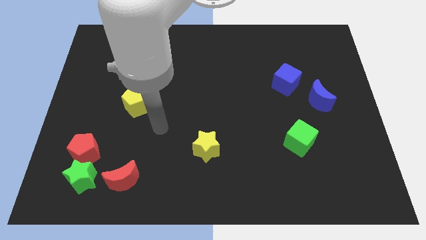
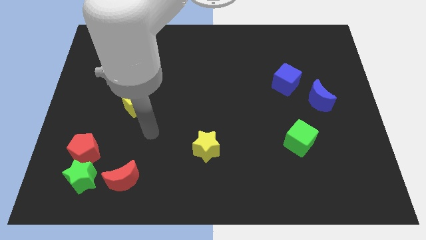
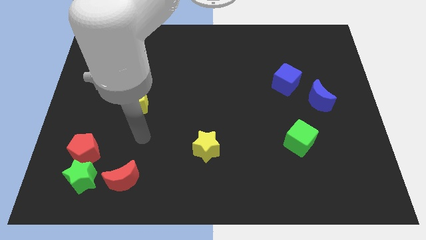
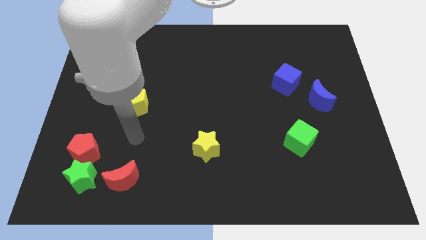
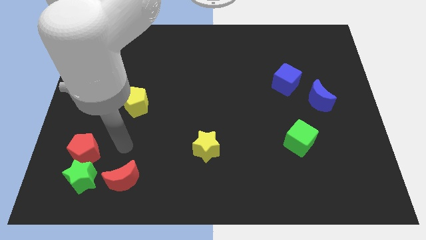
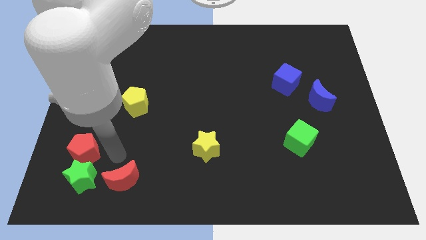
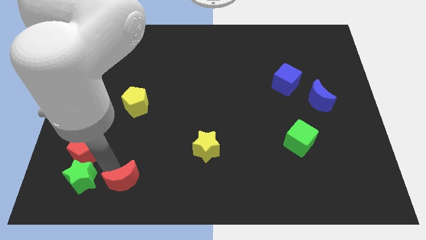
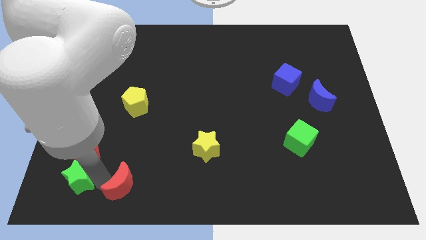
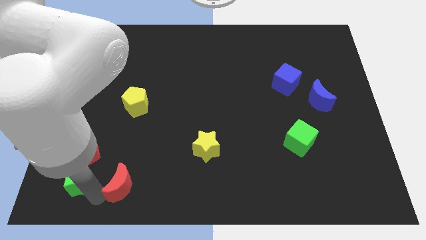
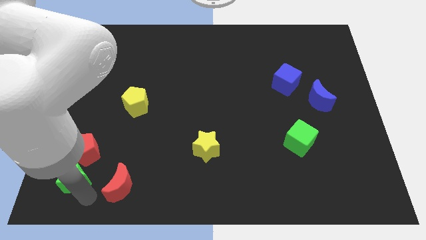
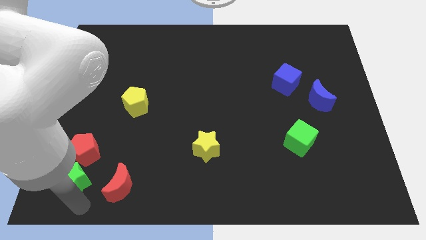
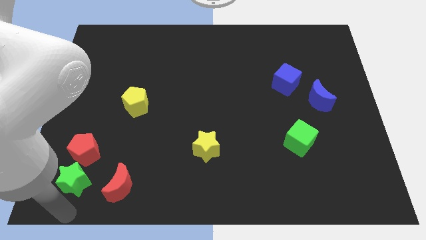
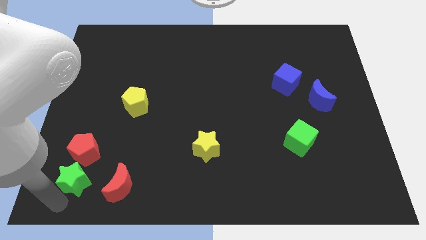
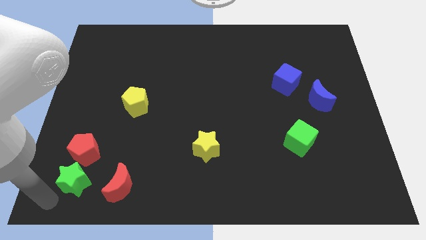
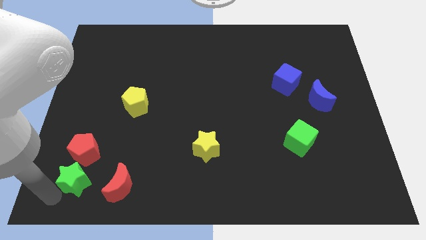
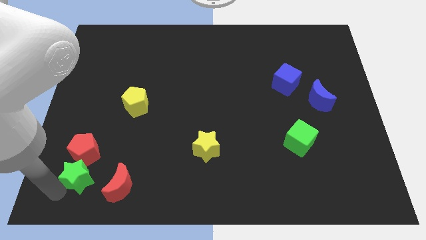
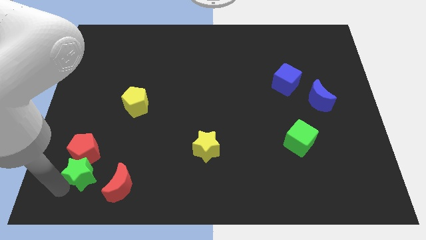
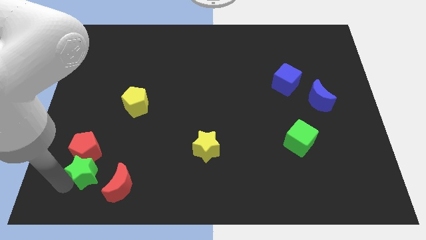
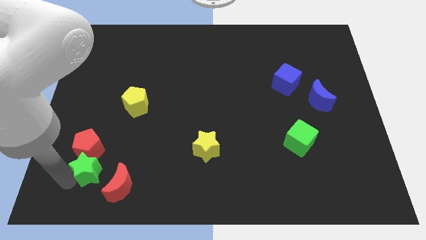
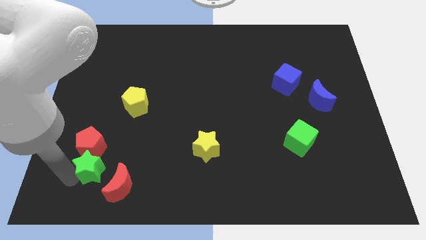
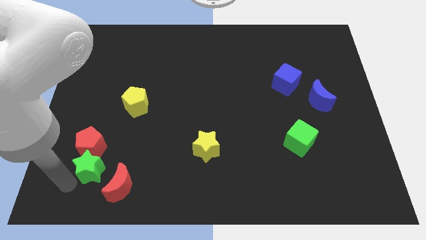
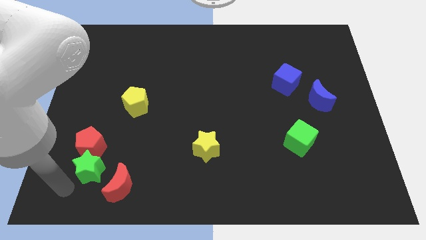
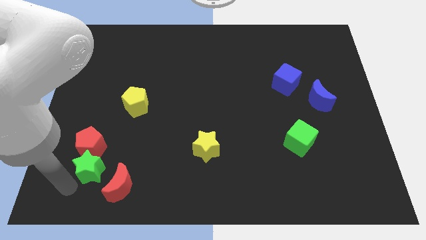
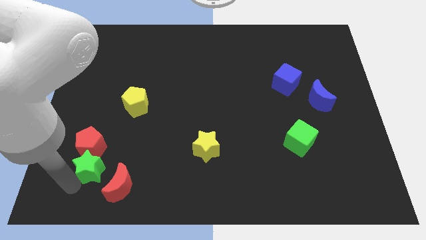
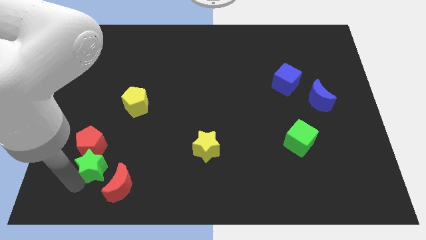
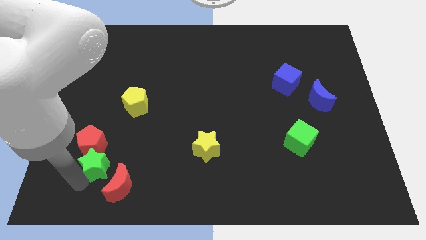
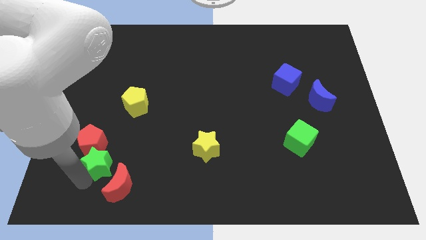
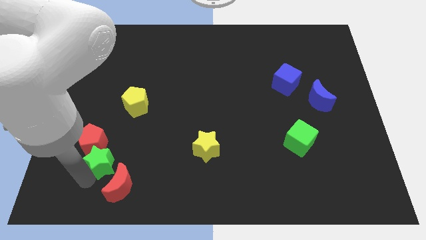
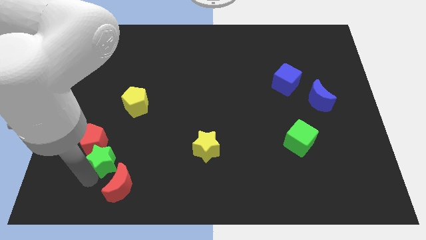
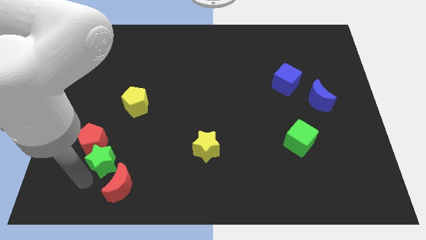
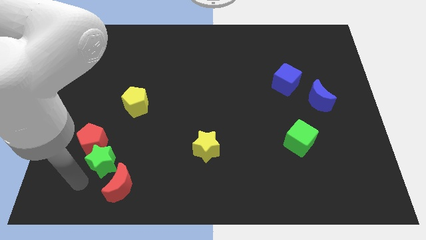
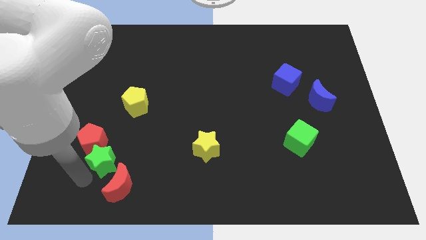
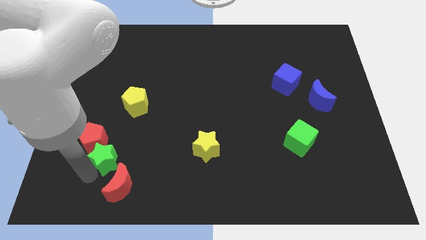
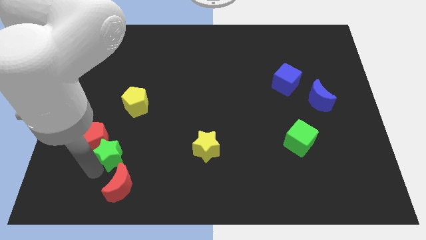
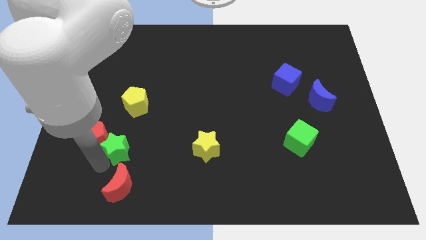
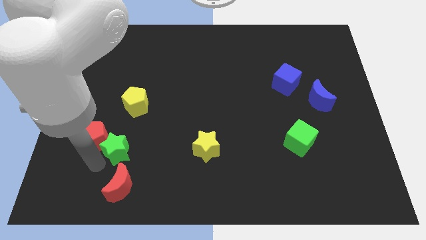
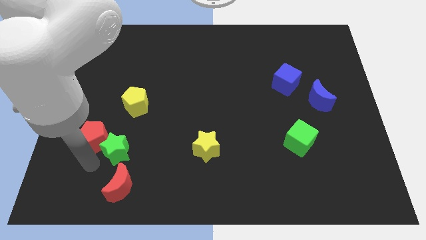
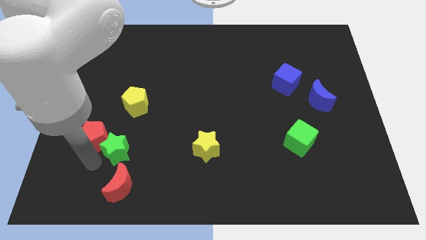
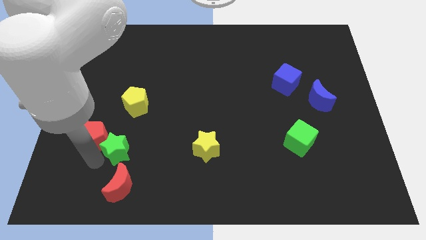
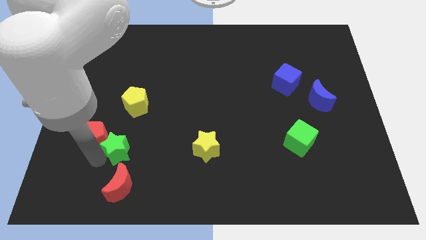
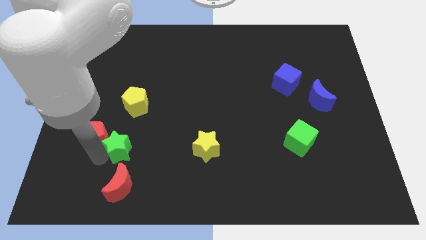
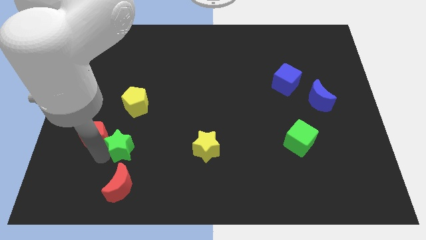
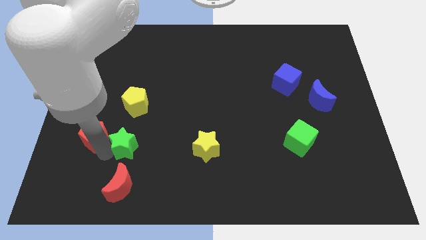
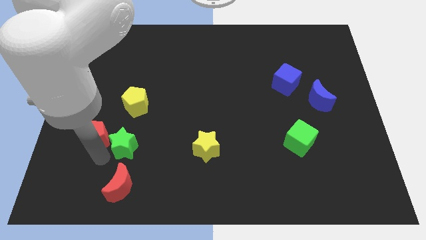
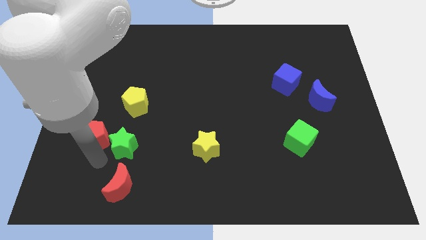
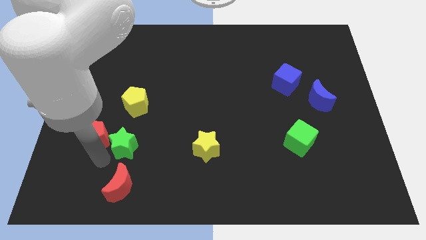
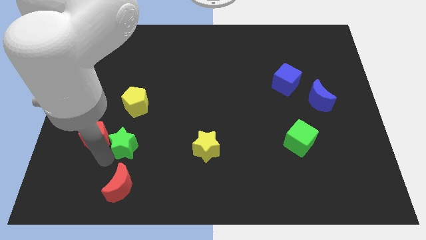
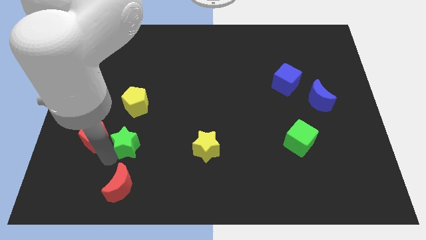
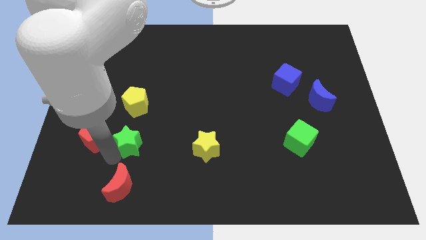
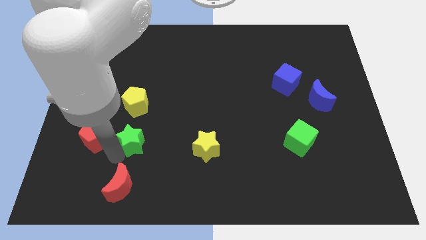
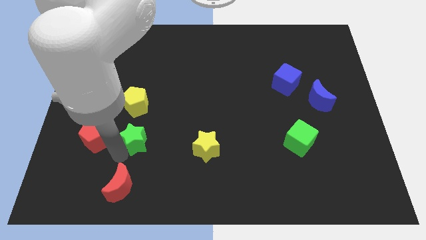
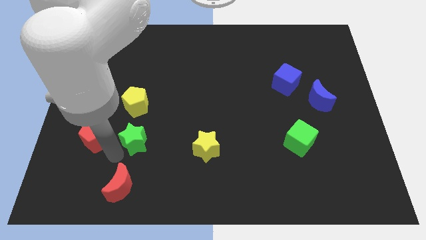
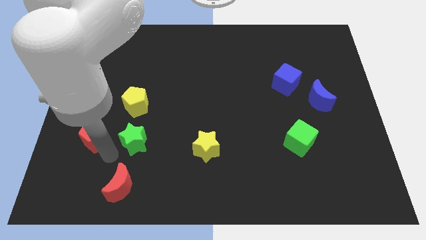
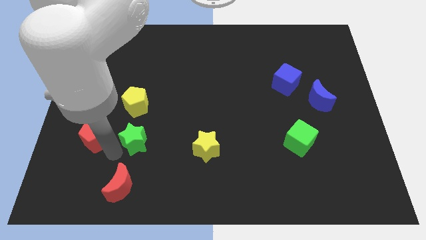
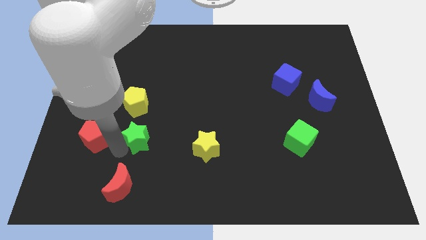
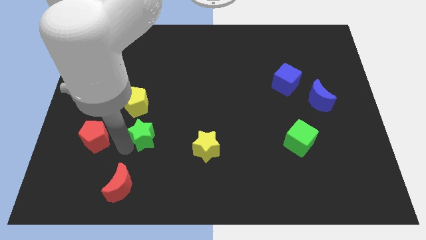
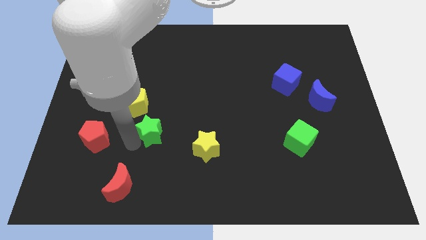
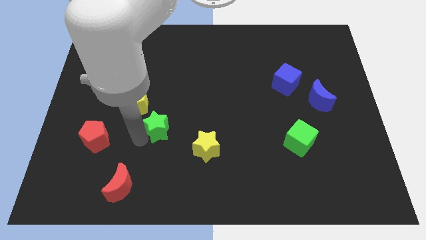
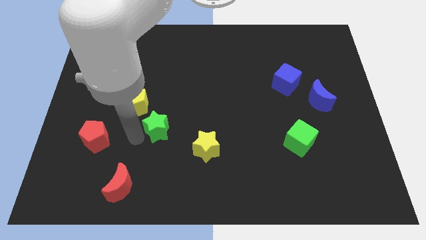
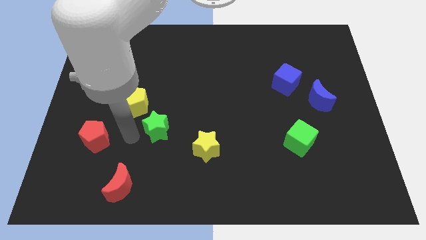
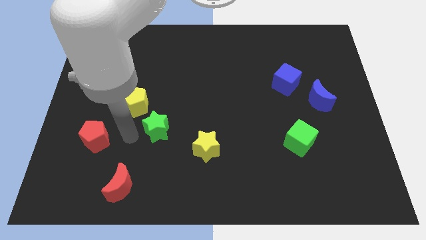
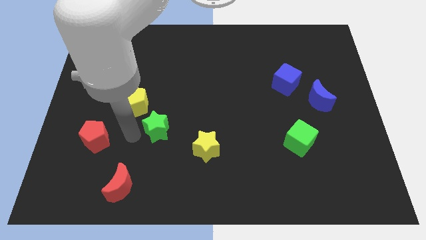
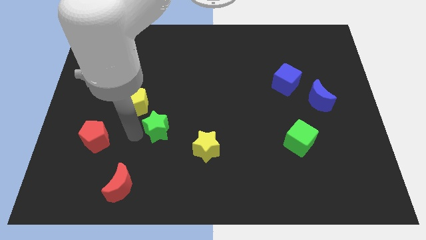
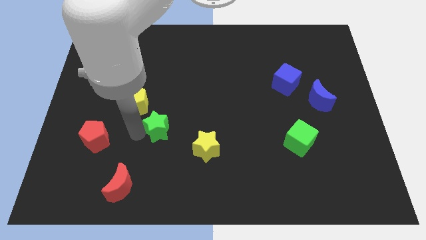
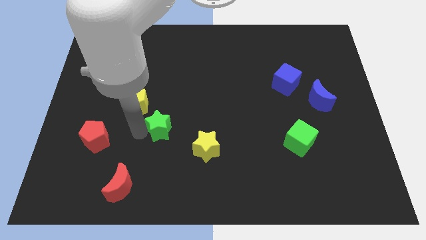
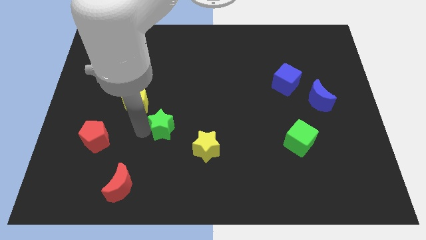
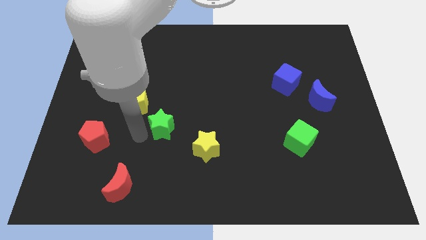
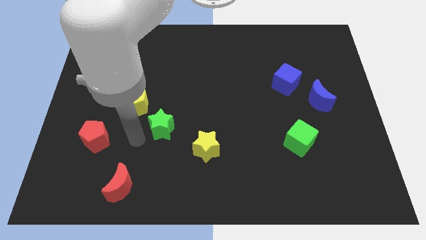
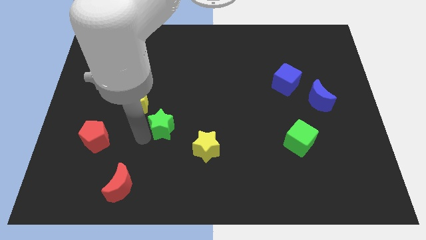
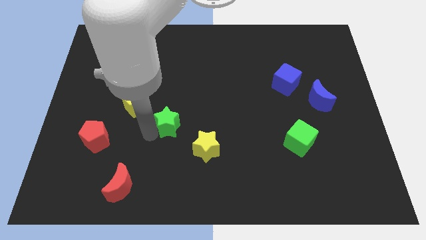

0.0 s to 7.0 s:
move the green star to the middle of the board
